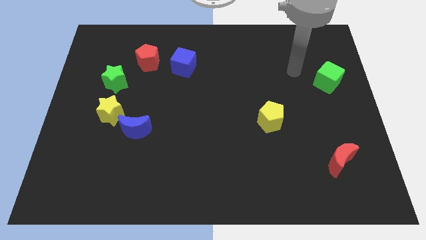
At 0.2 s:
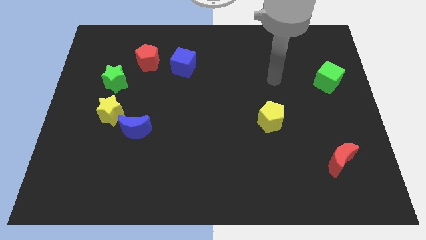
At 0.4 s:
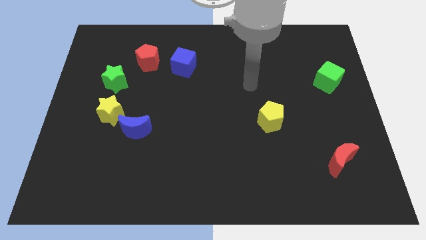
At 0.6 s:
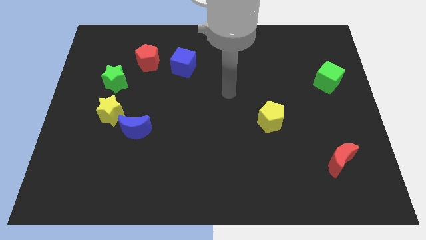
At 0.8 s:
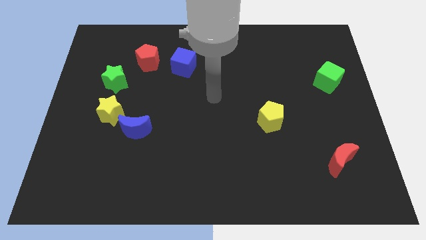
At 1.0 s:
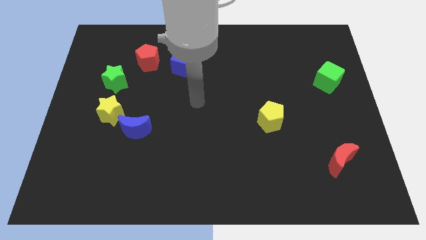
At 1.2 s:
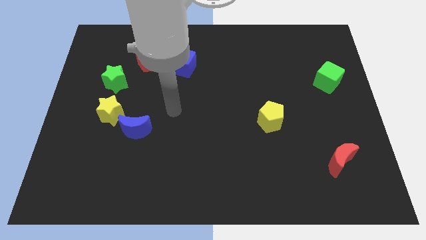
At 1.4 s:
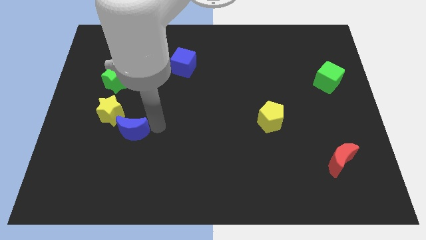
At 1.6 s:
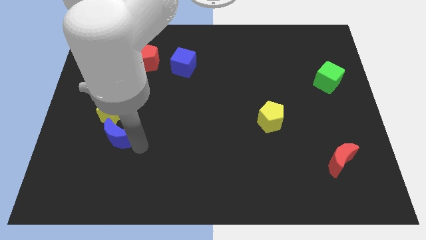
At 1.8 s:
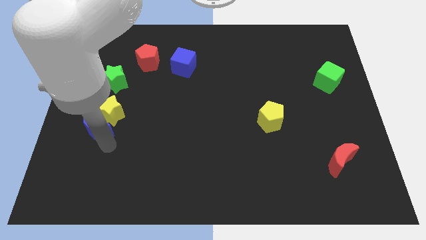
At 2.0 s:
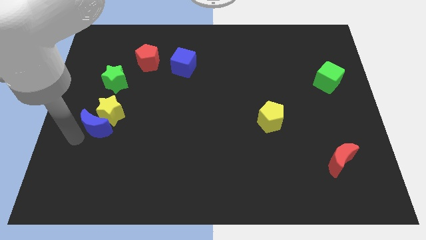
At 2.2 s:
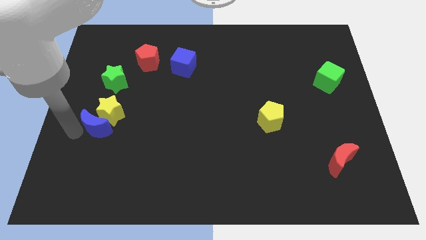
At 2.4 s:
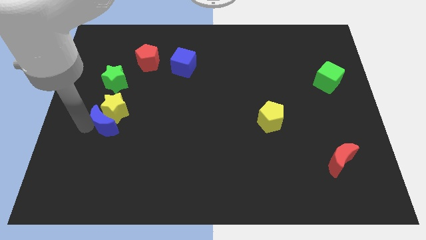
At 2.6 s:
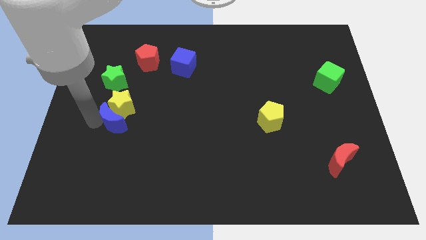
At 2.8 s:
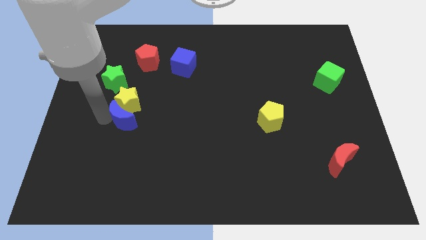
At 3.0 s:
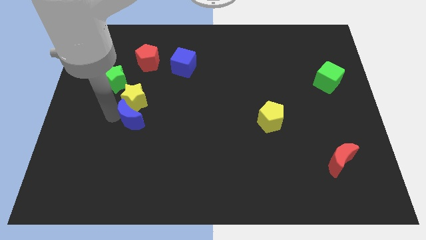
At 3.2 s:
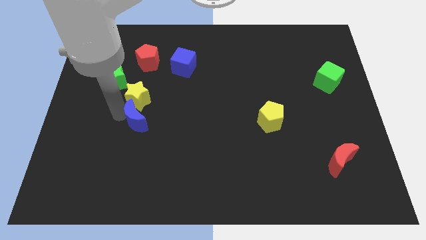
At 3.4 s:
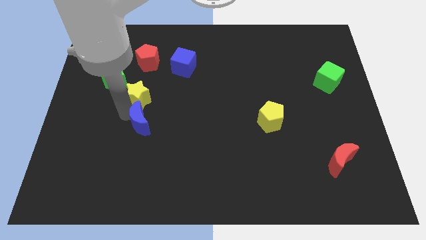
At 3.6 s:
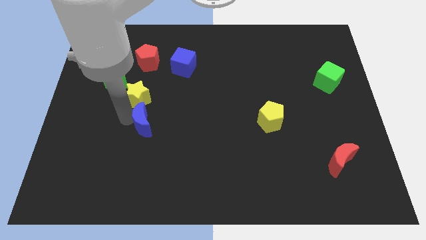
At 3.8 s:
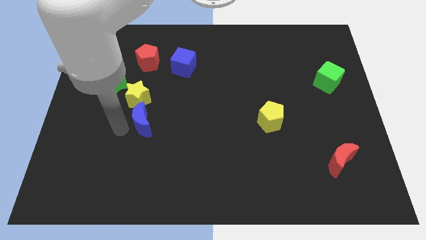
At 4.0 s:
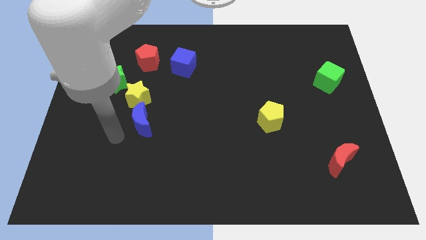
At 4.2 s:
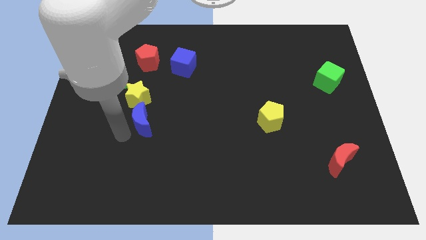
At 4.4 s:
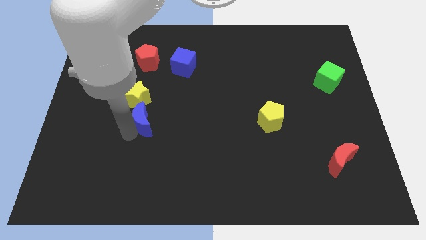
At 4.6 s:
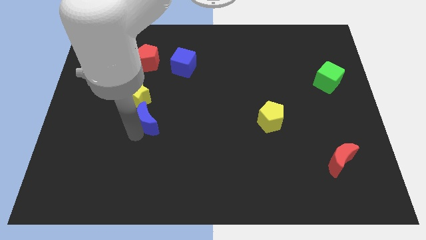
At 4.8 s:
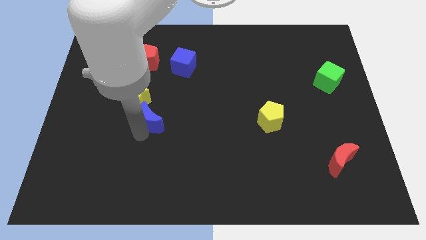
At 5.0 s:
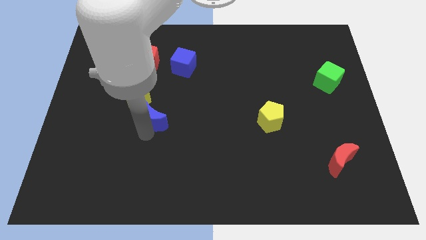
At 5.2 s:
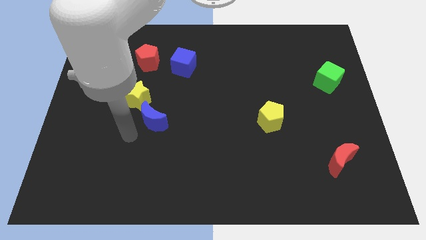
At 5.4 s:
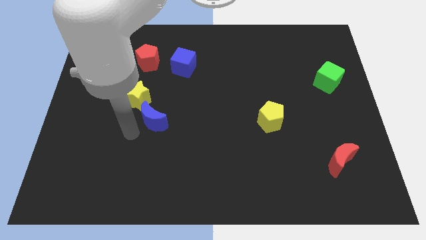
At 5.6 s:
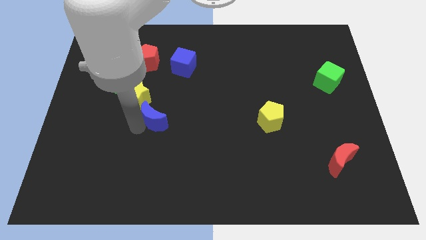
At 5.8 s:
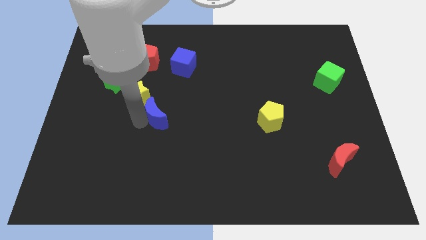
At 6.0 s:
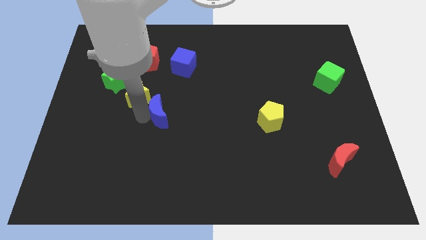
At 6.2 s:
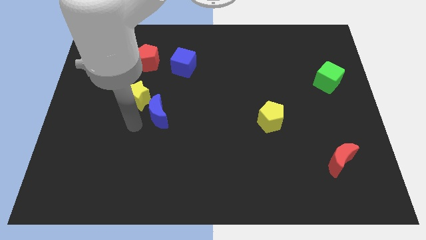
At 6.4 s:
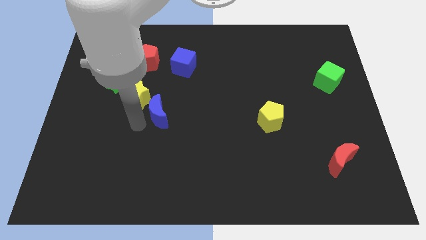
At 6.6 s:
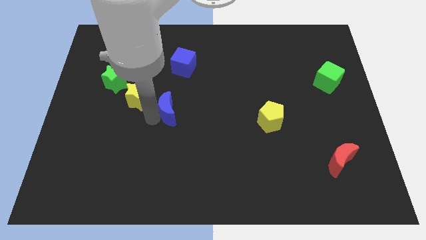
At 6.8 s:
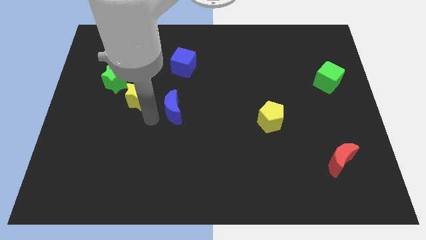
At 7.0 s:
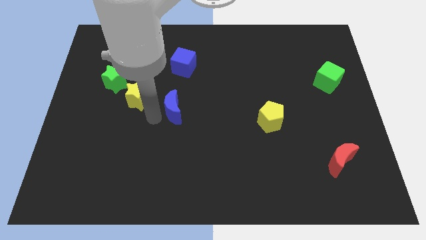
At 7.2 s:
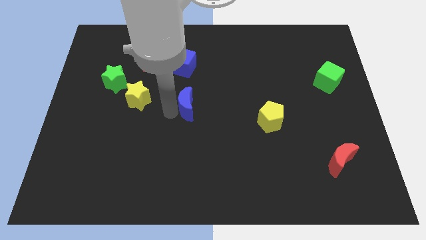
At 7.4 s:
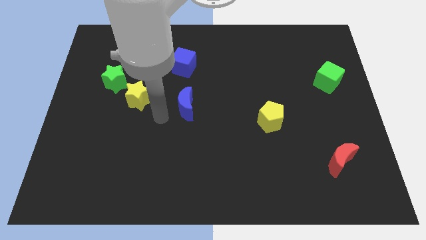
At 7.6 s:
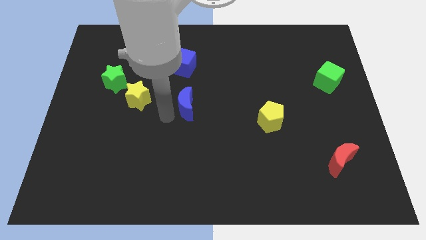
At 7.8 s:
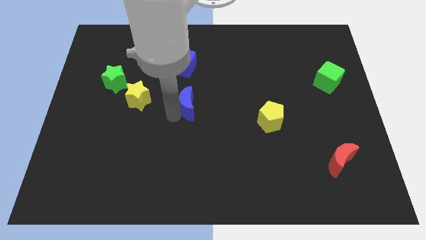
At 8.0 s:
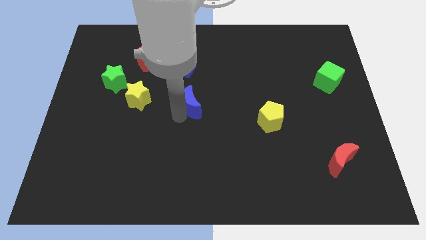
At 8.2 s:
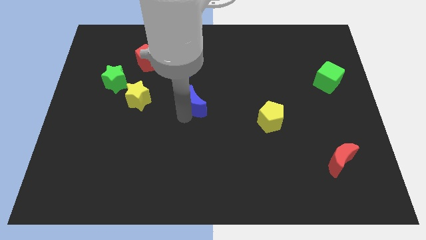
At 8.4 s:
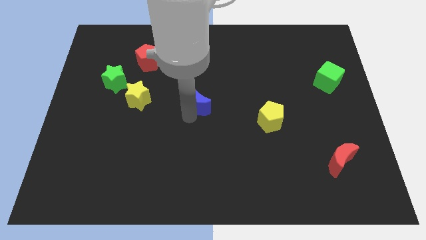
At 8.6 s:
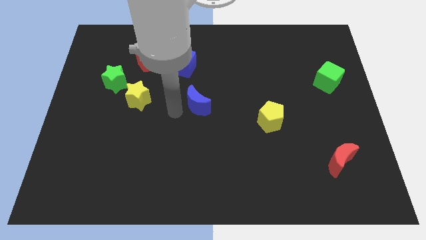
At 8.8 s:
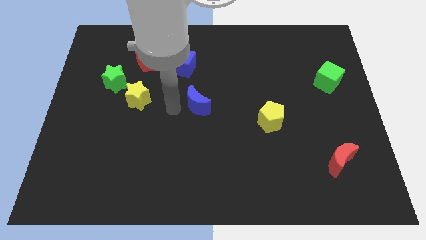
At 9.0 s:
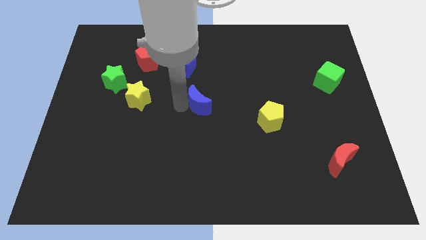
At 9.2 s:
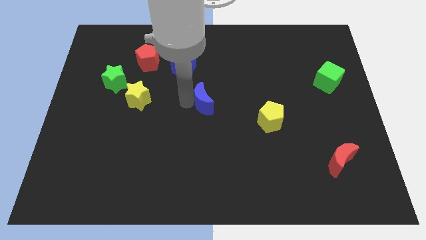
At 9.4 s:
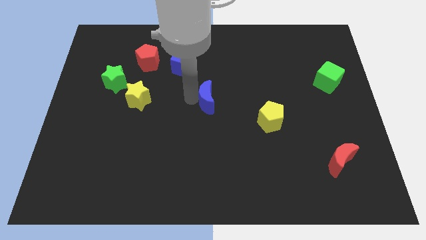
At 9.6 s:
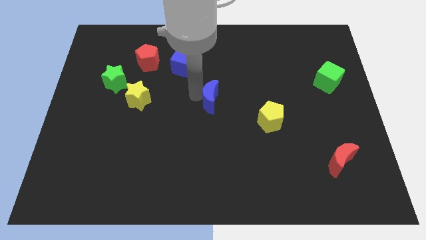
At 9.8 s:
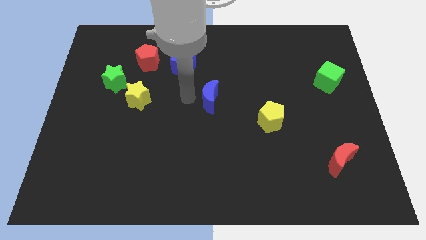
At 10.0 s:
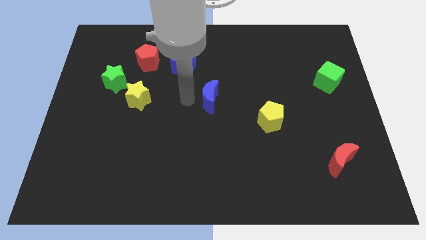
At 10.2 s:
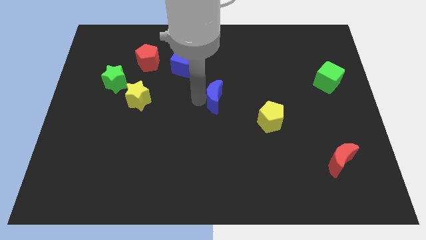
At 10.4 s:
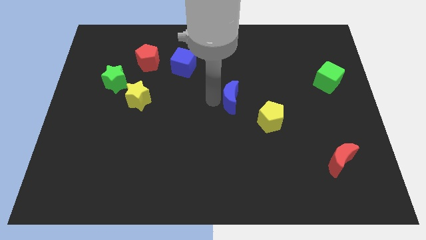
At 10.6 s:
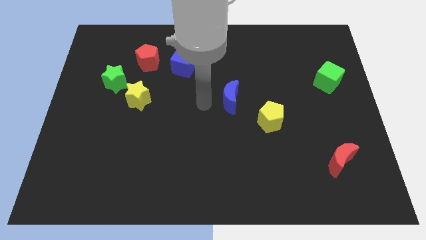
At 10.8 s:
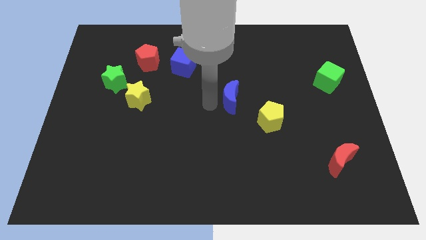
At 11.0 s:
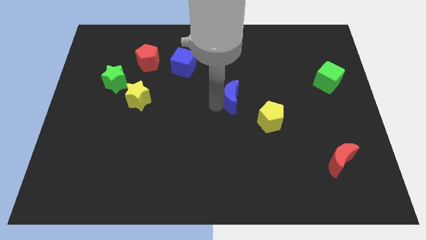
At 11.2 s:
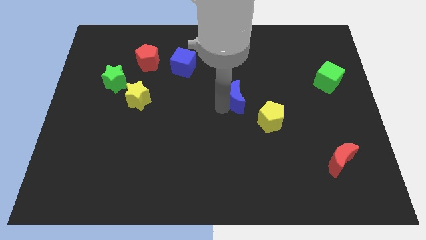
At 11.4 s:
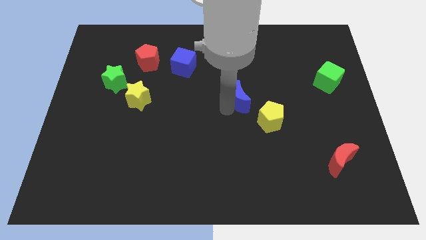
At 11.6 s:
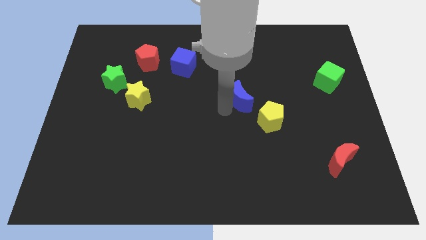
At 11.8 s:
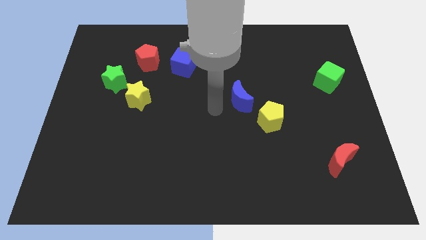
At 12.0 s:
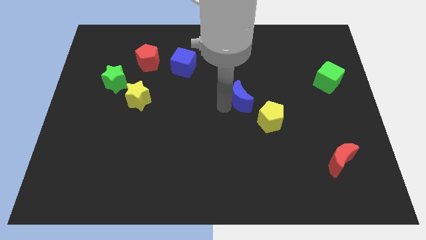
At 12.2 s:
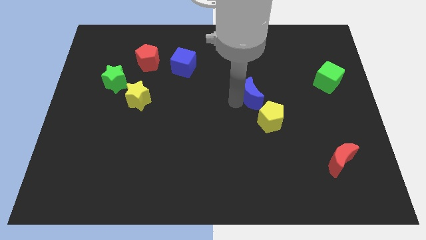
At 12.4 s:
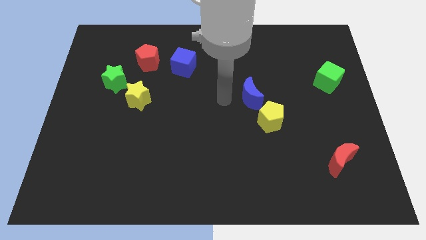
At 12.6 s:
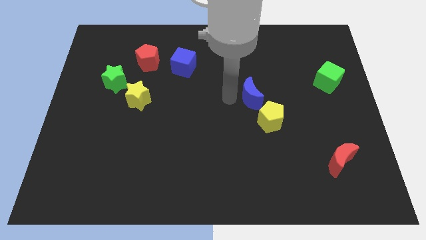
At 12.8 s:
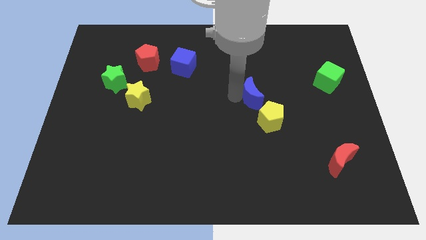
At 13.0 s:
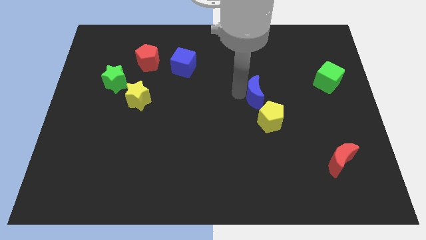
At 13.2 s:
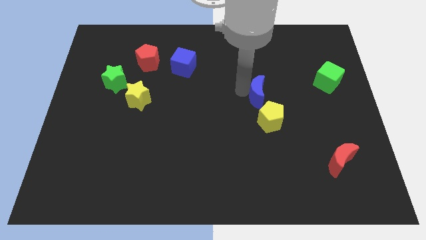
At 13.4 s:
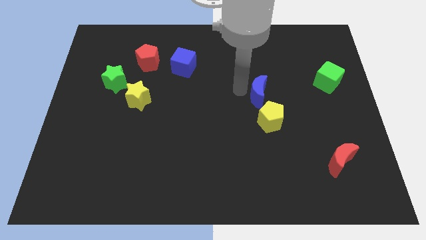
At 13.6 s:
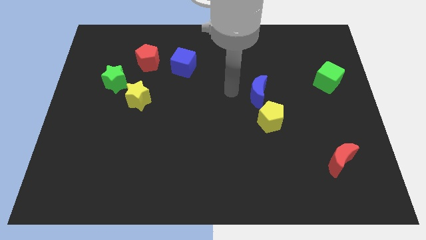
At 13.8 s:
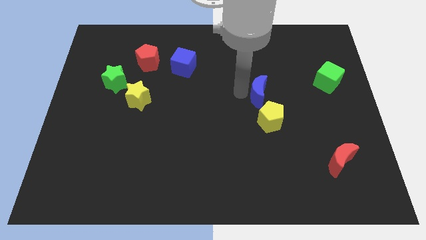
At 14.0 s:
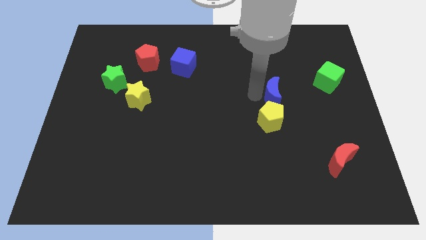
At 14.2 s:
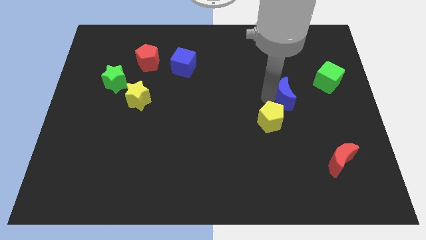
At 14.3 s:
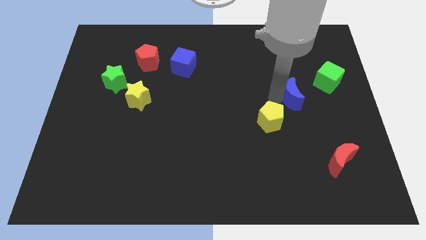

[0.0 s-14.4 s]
put the blue moon to the bottom left side of the green cube
